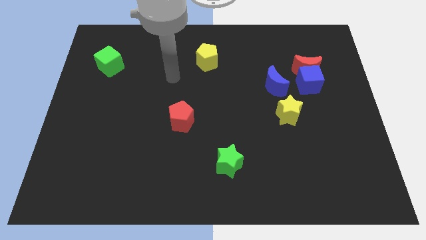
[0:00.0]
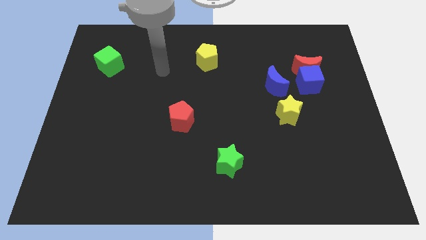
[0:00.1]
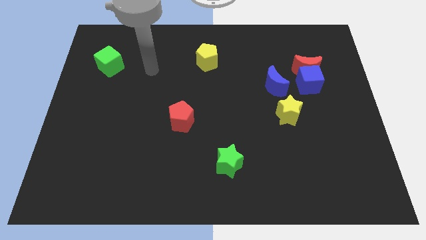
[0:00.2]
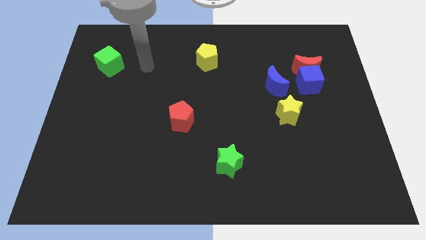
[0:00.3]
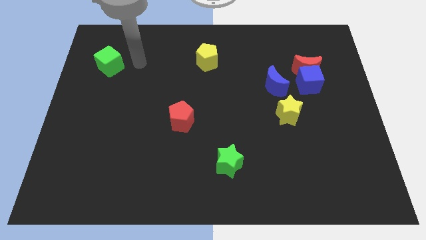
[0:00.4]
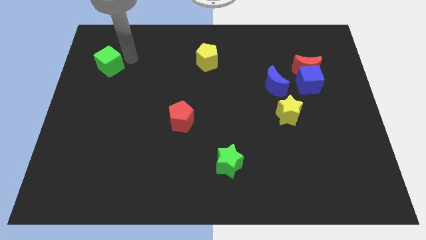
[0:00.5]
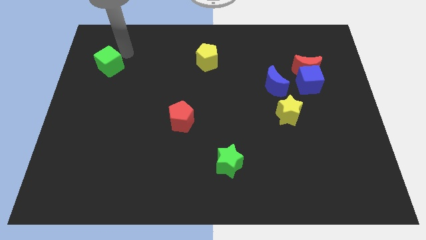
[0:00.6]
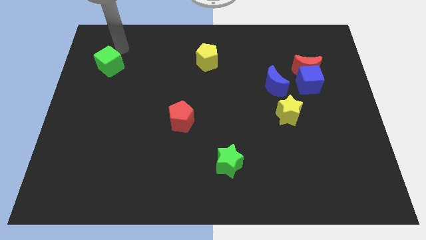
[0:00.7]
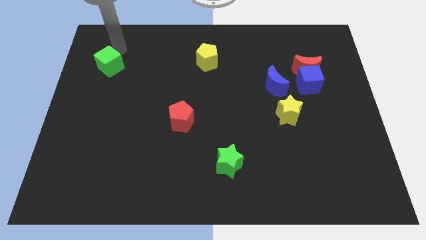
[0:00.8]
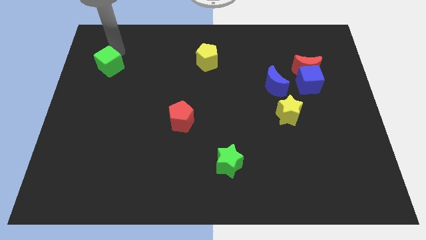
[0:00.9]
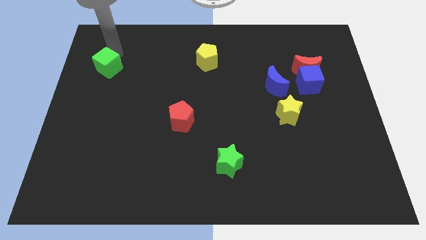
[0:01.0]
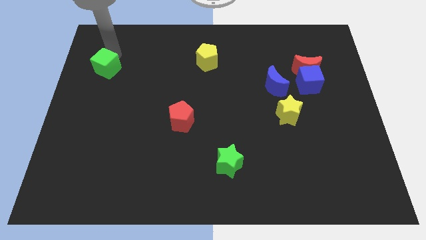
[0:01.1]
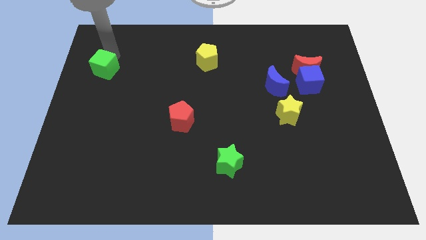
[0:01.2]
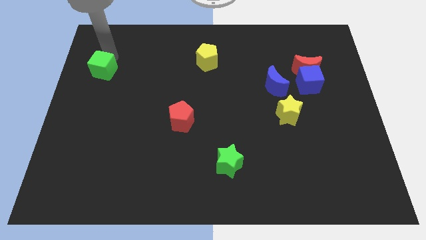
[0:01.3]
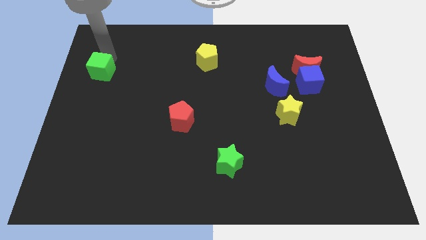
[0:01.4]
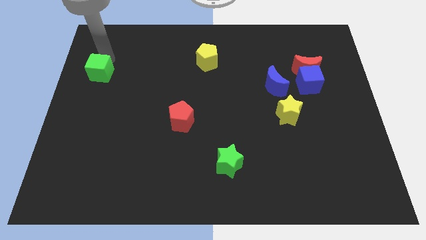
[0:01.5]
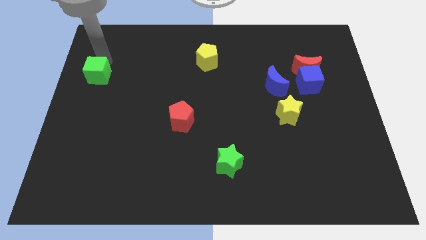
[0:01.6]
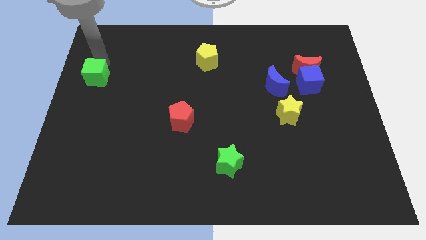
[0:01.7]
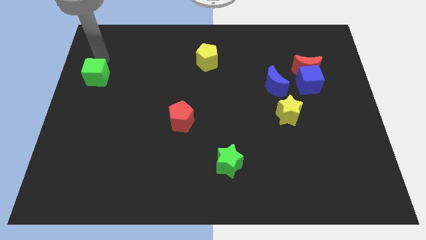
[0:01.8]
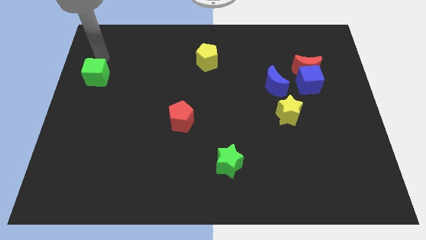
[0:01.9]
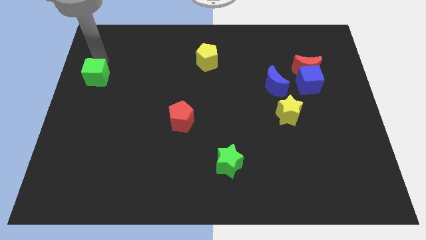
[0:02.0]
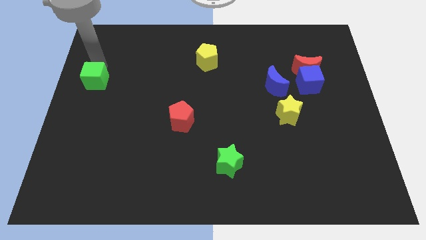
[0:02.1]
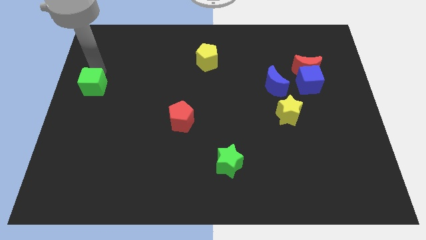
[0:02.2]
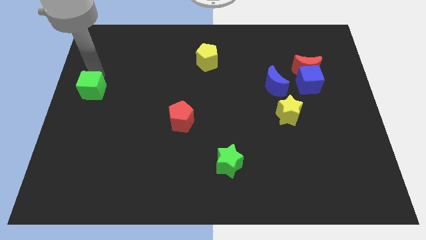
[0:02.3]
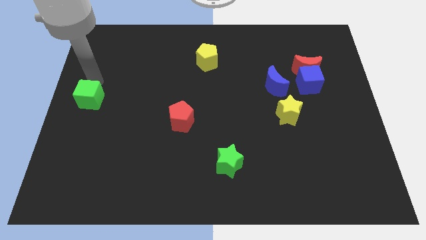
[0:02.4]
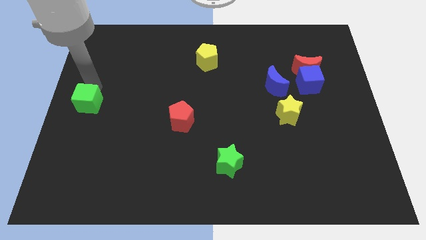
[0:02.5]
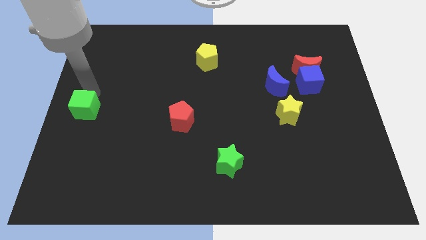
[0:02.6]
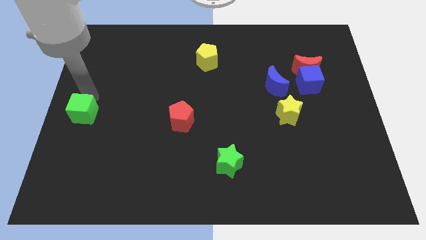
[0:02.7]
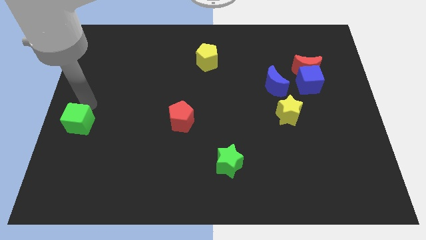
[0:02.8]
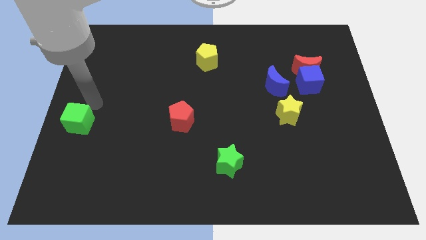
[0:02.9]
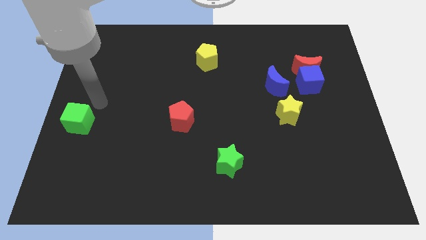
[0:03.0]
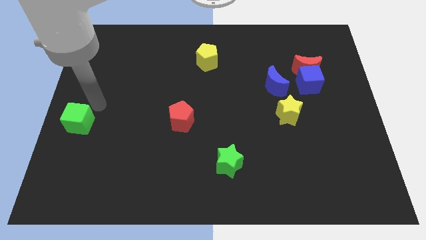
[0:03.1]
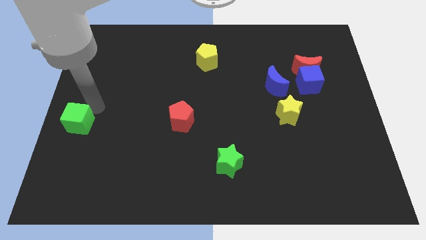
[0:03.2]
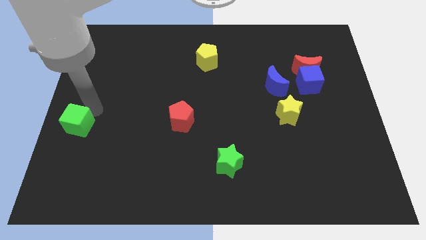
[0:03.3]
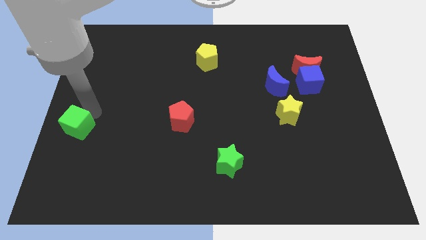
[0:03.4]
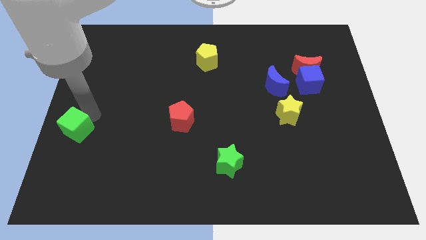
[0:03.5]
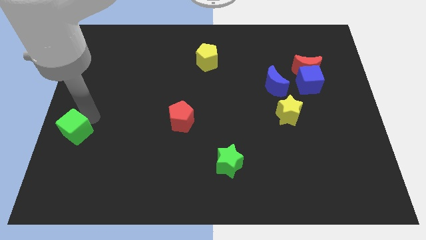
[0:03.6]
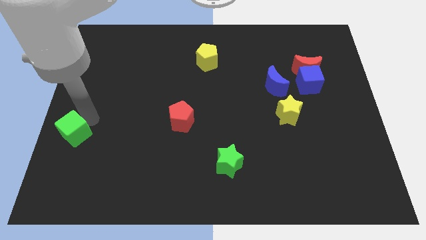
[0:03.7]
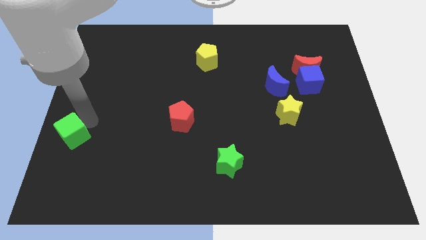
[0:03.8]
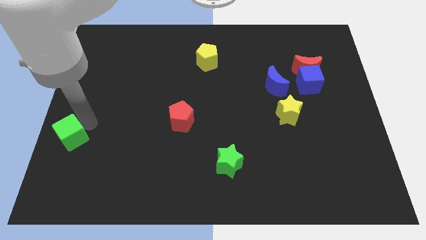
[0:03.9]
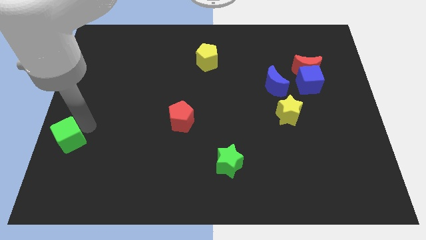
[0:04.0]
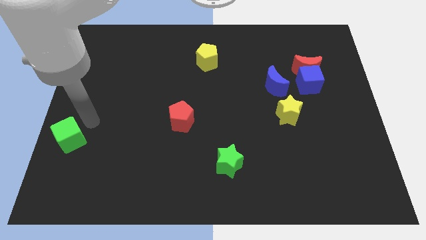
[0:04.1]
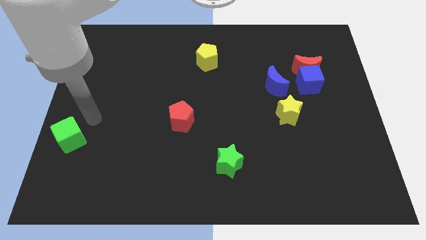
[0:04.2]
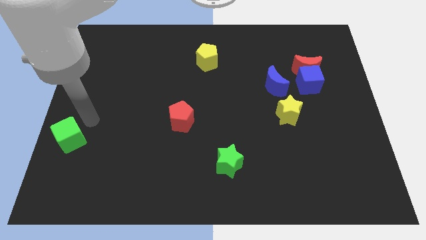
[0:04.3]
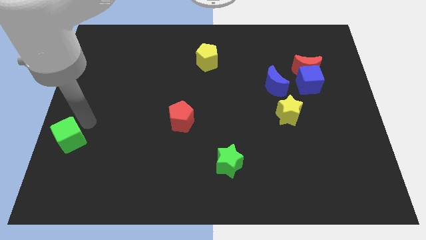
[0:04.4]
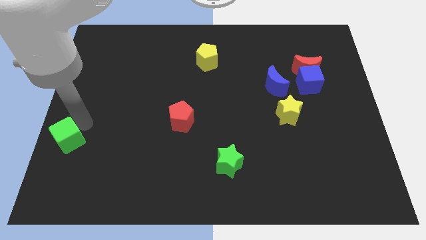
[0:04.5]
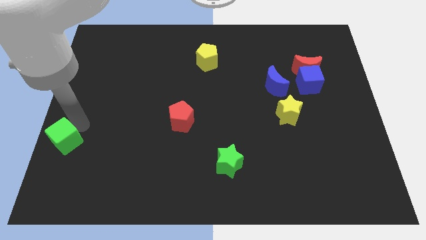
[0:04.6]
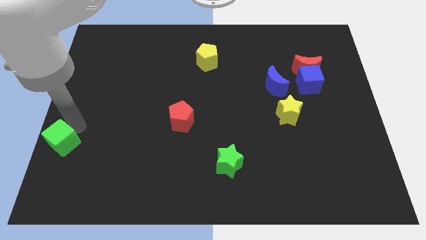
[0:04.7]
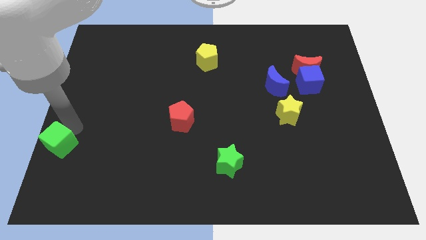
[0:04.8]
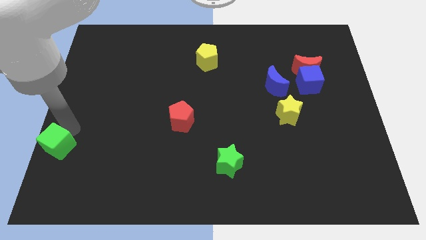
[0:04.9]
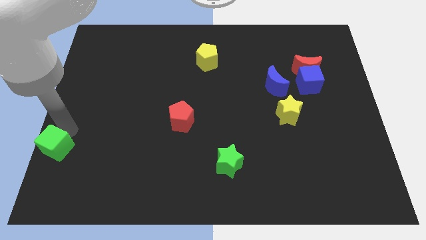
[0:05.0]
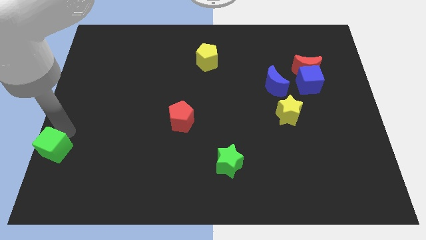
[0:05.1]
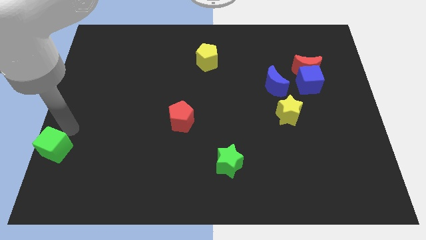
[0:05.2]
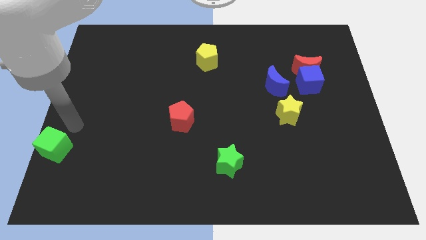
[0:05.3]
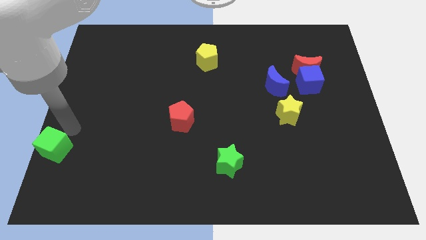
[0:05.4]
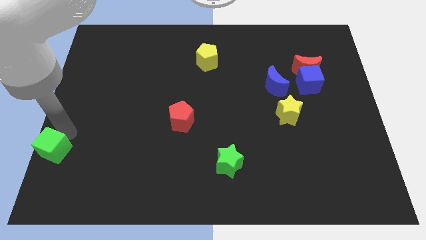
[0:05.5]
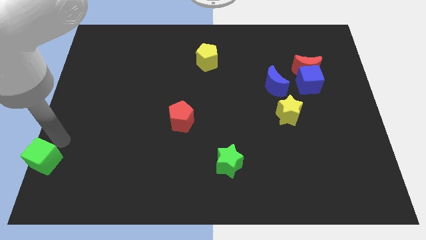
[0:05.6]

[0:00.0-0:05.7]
push the green cube to the bottom left

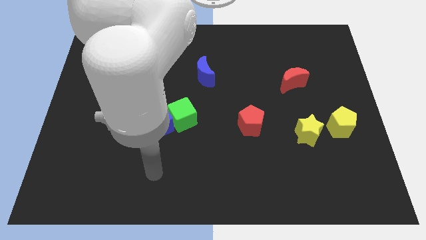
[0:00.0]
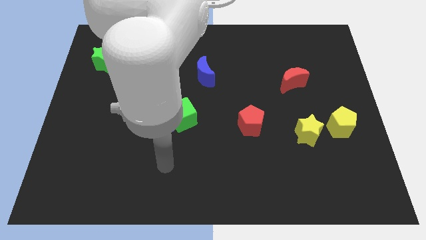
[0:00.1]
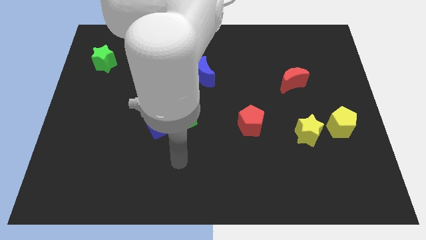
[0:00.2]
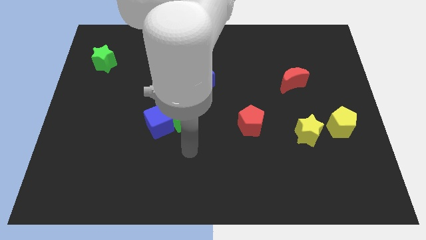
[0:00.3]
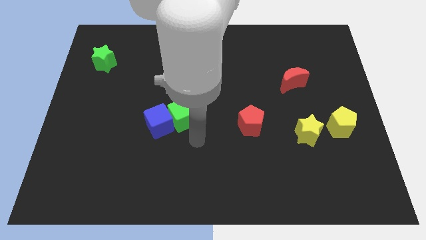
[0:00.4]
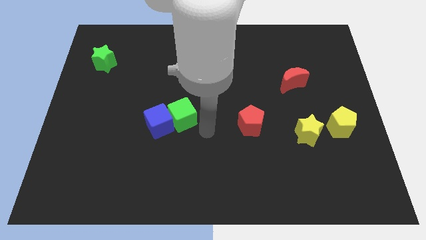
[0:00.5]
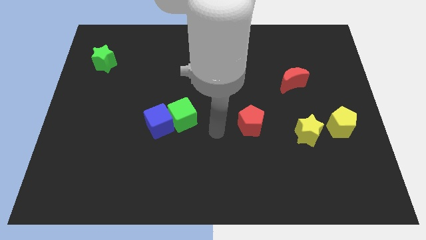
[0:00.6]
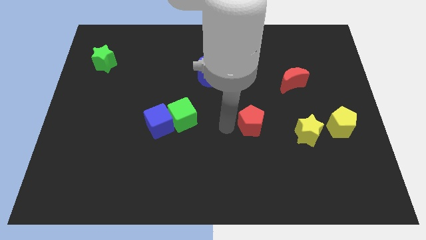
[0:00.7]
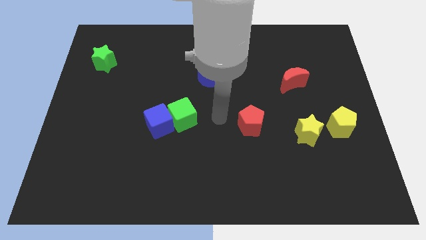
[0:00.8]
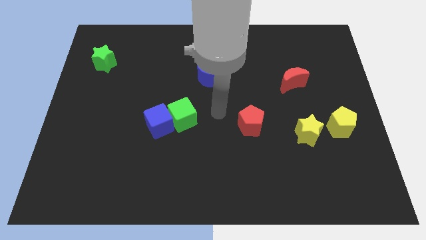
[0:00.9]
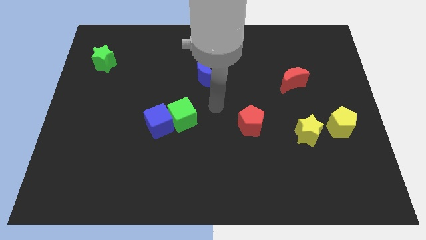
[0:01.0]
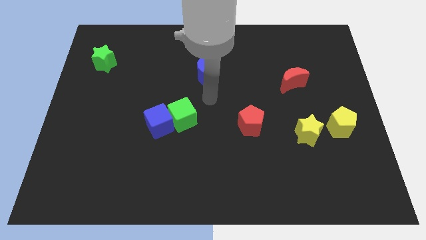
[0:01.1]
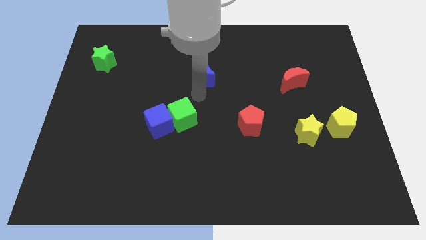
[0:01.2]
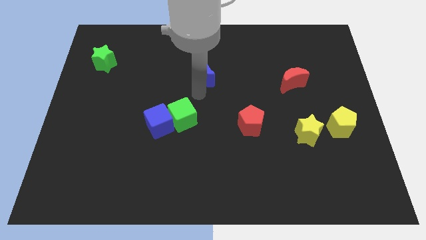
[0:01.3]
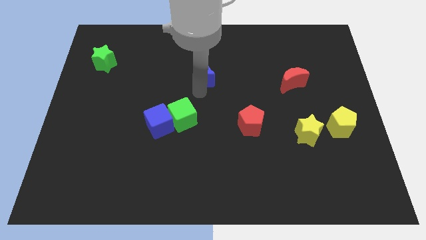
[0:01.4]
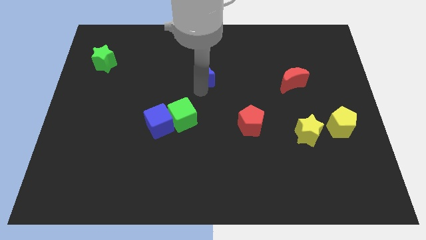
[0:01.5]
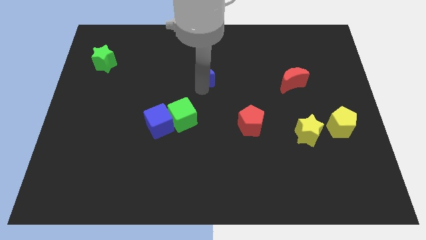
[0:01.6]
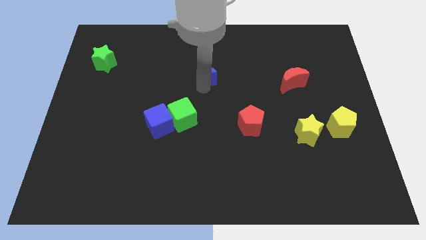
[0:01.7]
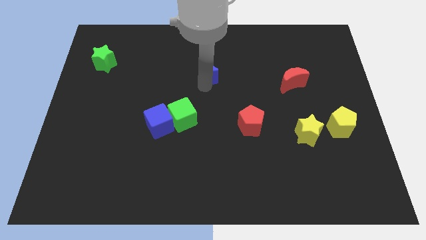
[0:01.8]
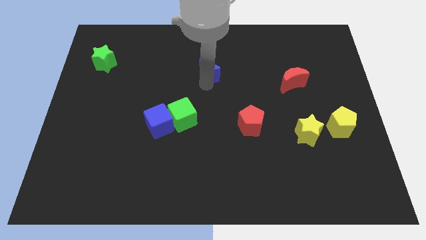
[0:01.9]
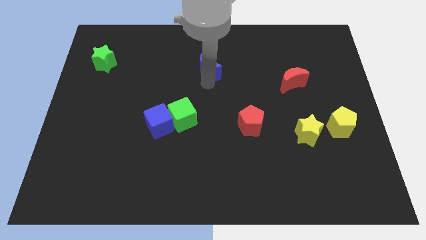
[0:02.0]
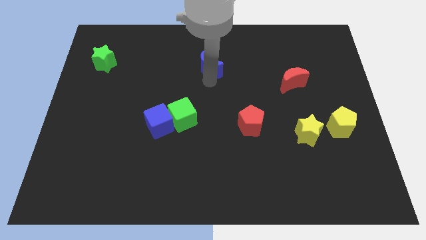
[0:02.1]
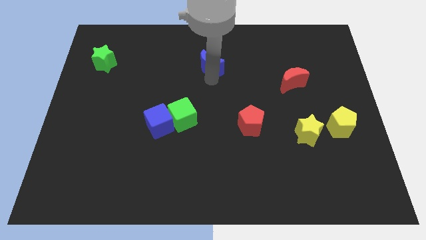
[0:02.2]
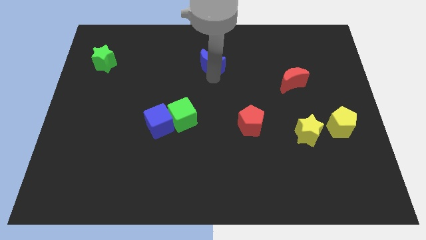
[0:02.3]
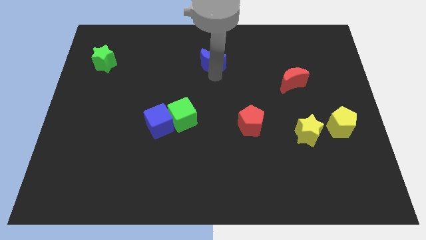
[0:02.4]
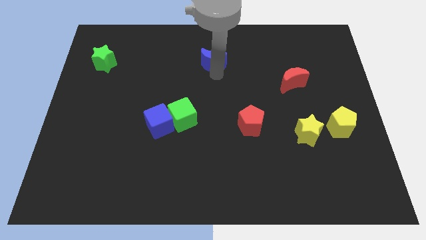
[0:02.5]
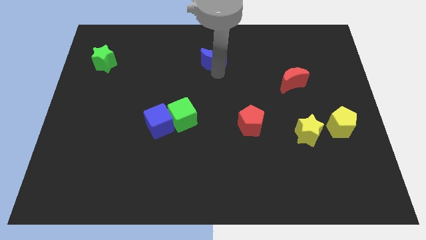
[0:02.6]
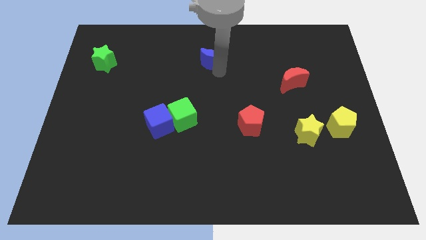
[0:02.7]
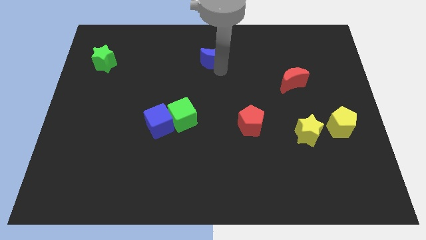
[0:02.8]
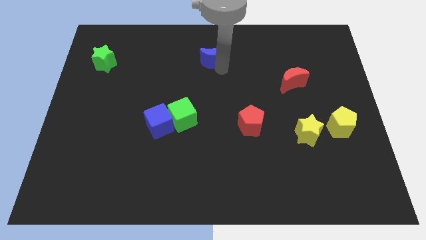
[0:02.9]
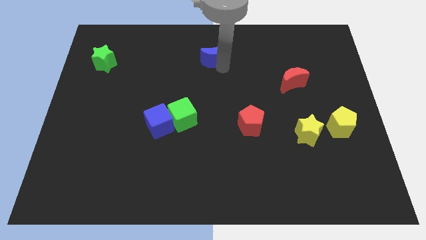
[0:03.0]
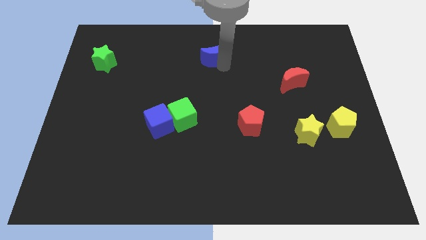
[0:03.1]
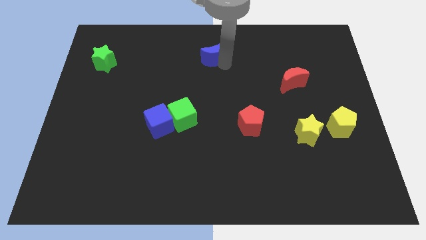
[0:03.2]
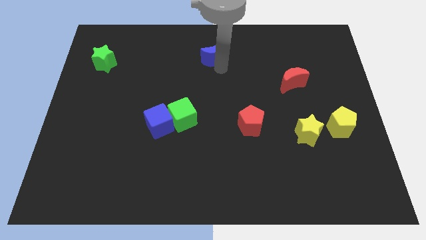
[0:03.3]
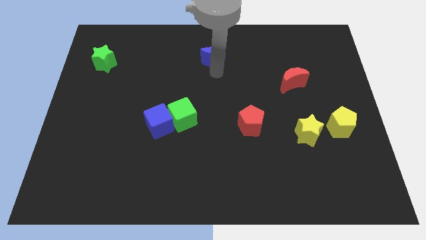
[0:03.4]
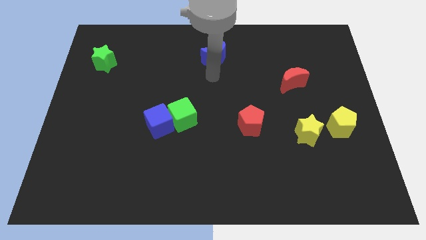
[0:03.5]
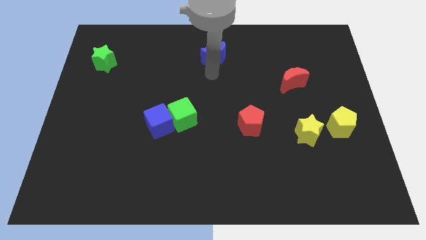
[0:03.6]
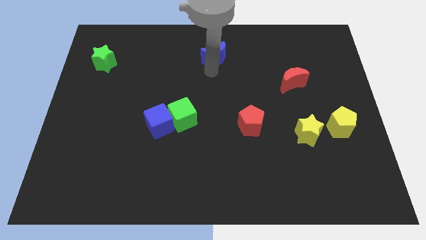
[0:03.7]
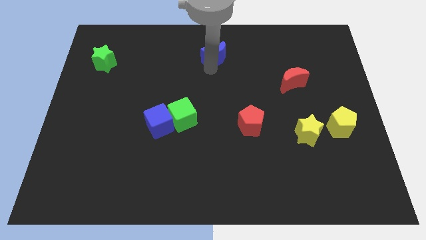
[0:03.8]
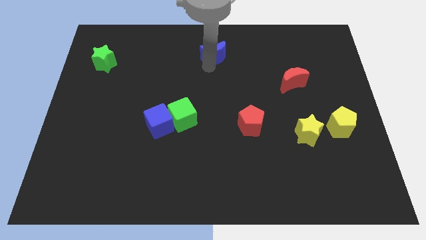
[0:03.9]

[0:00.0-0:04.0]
slide the blue moon to the top
